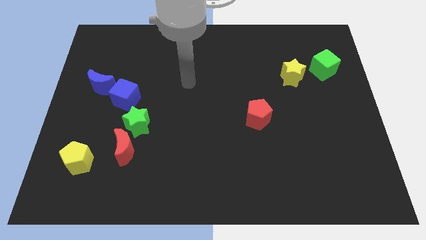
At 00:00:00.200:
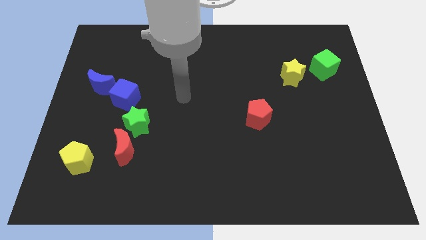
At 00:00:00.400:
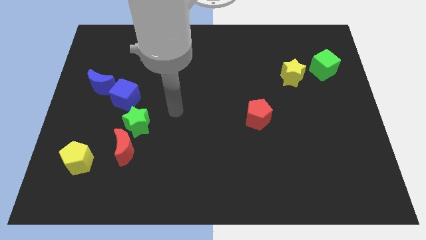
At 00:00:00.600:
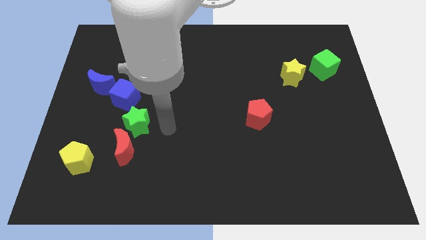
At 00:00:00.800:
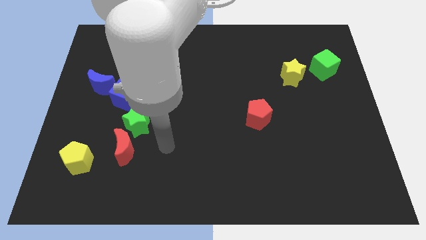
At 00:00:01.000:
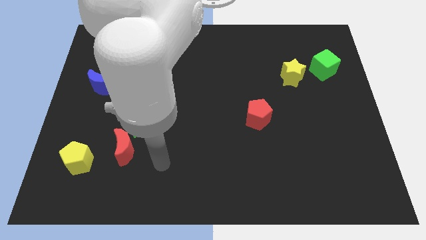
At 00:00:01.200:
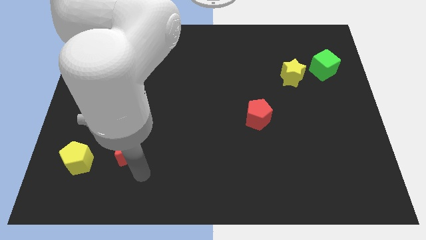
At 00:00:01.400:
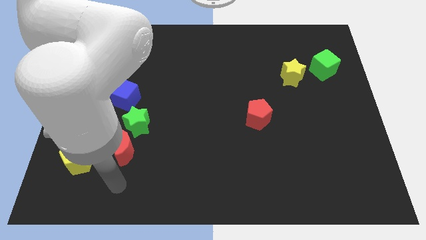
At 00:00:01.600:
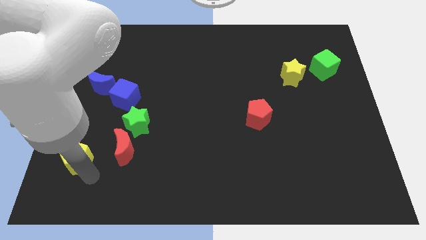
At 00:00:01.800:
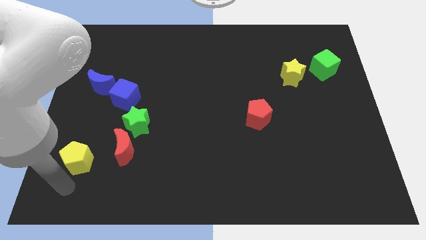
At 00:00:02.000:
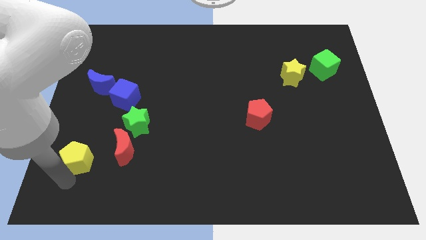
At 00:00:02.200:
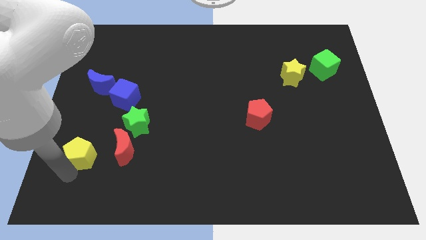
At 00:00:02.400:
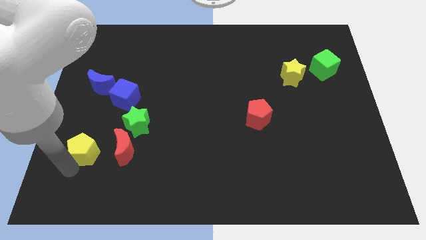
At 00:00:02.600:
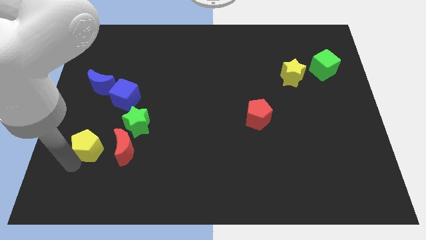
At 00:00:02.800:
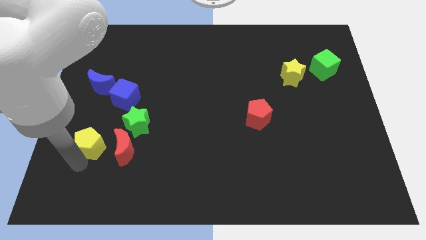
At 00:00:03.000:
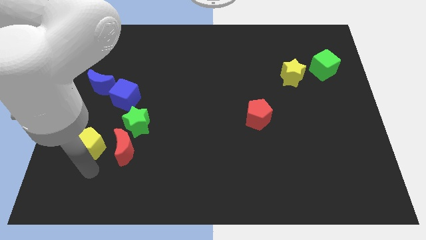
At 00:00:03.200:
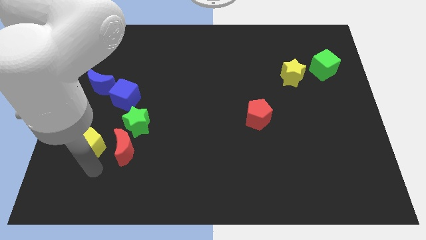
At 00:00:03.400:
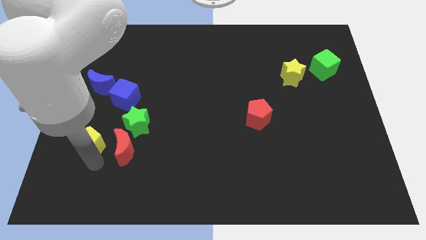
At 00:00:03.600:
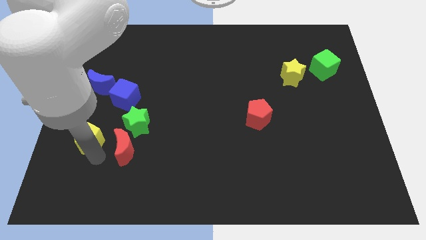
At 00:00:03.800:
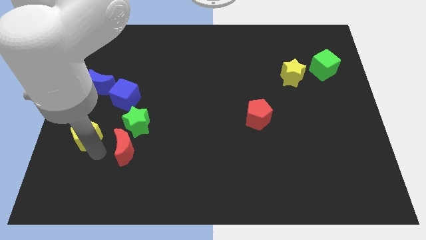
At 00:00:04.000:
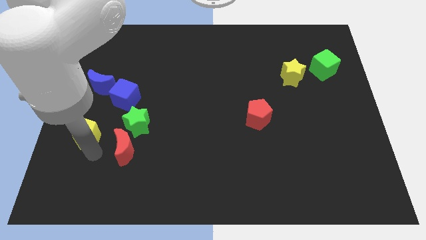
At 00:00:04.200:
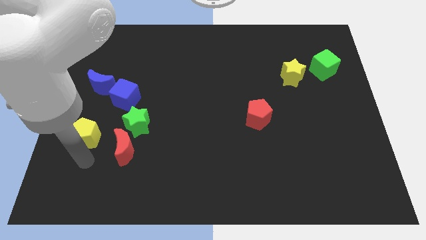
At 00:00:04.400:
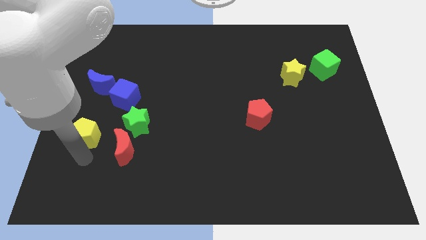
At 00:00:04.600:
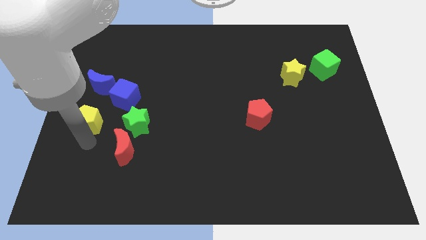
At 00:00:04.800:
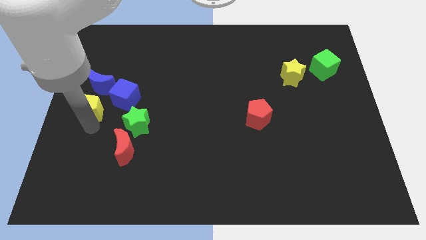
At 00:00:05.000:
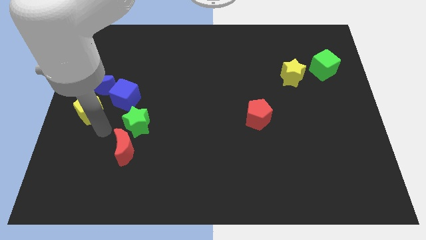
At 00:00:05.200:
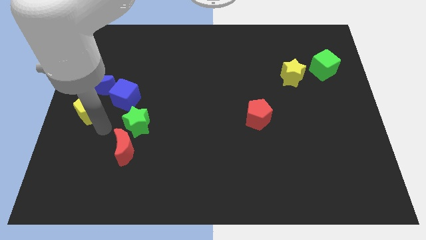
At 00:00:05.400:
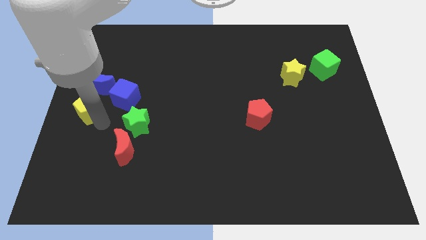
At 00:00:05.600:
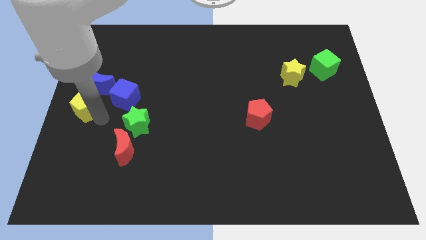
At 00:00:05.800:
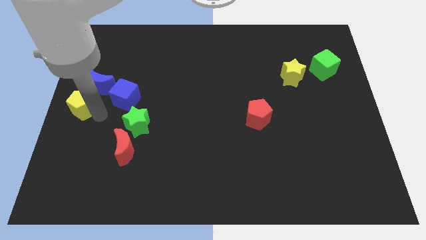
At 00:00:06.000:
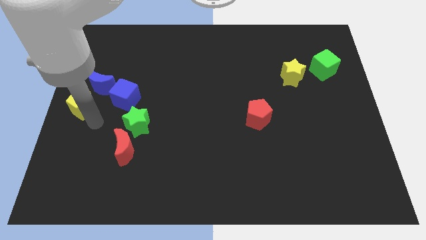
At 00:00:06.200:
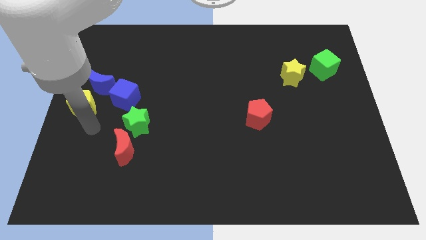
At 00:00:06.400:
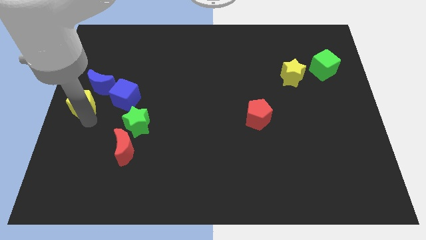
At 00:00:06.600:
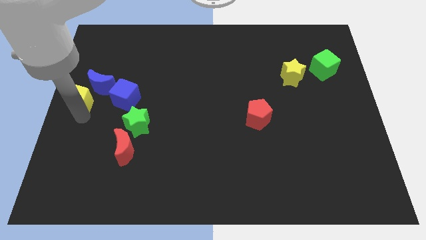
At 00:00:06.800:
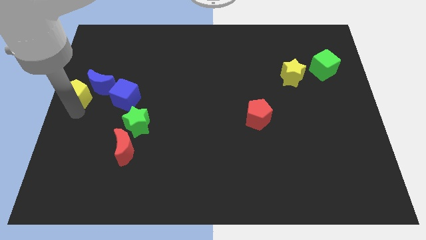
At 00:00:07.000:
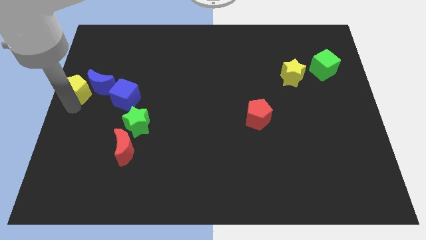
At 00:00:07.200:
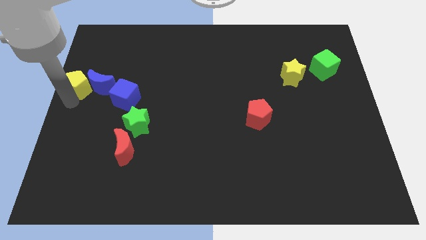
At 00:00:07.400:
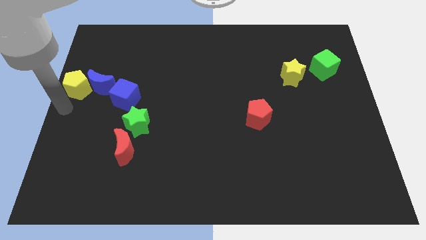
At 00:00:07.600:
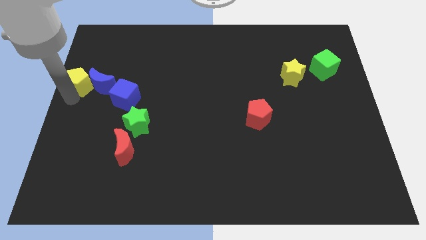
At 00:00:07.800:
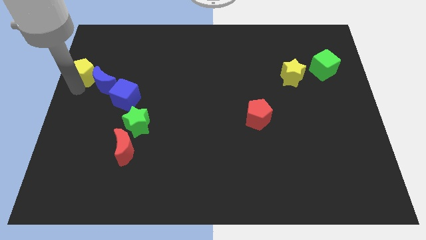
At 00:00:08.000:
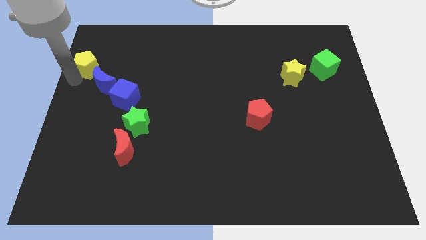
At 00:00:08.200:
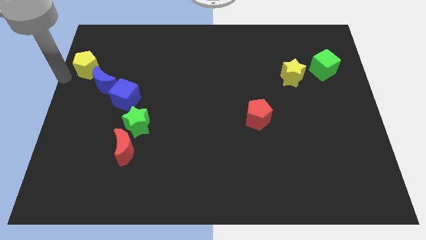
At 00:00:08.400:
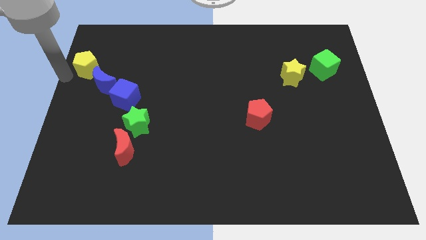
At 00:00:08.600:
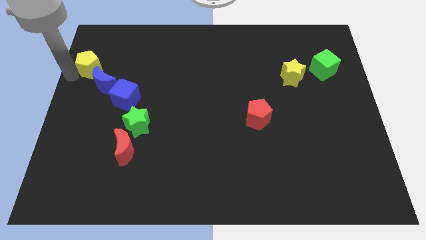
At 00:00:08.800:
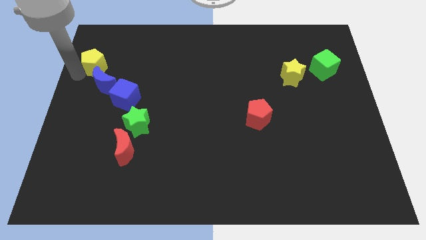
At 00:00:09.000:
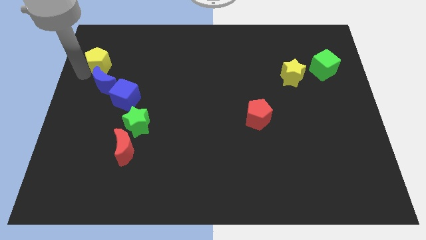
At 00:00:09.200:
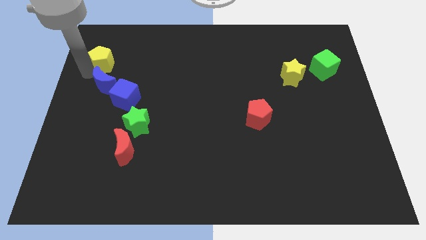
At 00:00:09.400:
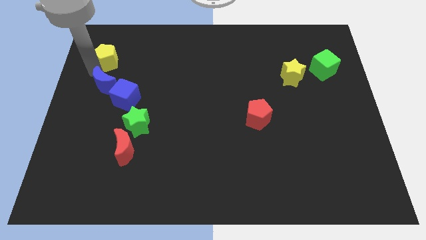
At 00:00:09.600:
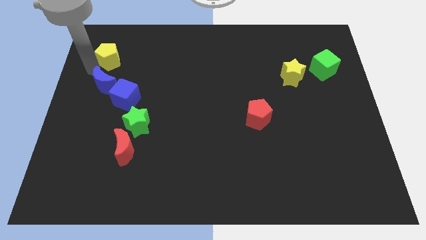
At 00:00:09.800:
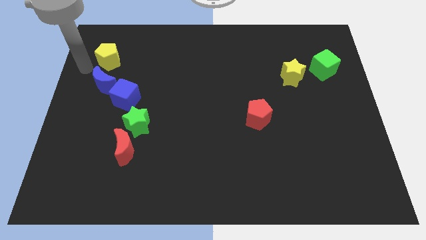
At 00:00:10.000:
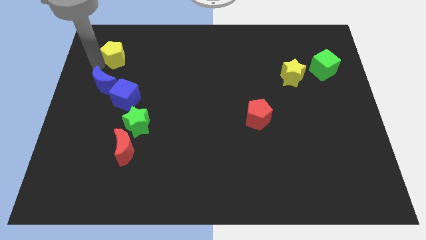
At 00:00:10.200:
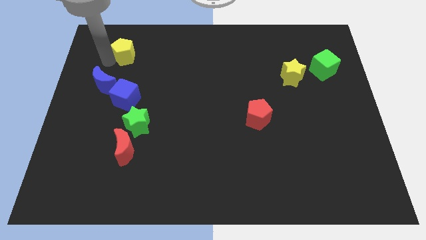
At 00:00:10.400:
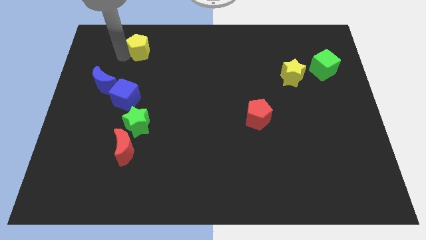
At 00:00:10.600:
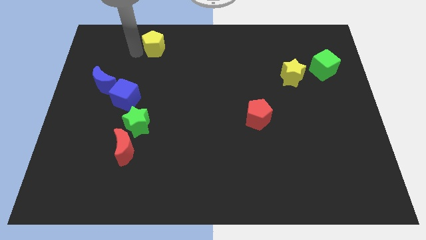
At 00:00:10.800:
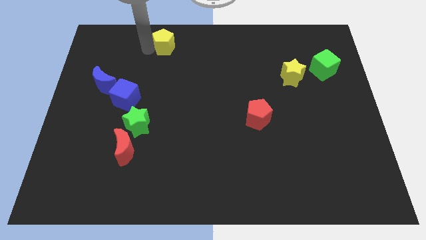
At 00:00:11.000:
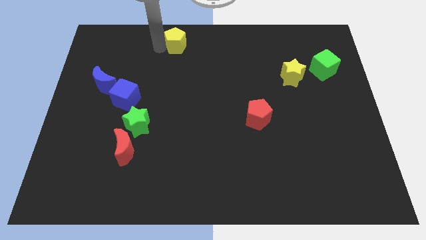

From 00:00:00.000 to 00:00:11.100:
move the yellow pentagon to the top

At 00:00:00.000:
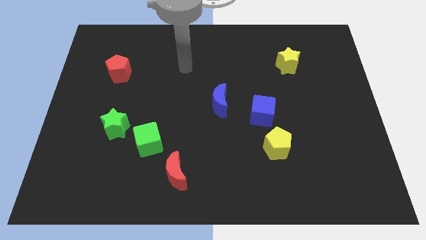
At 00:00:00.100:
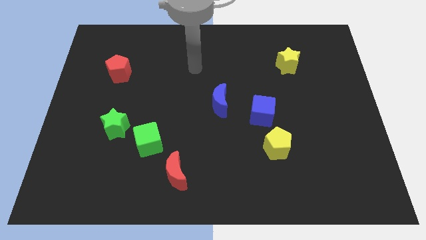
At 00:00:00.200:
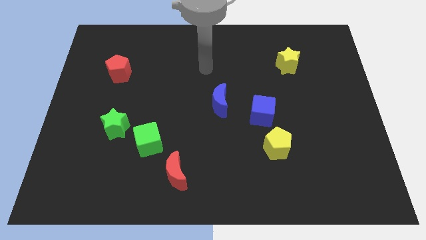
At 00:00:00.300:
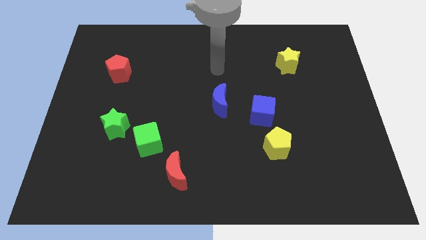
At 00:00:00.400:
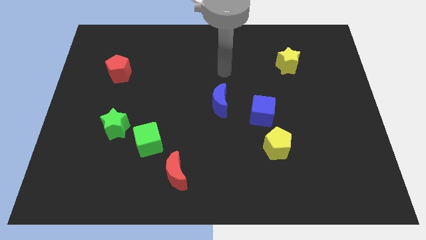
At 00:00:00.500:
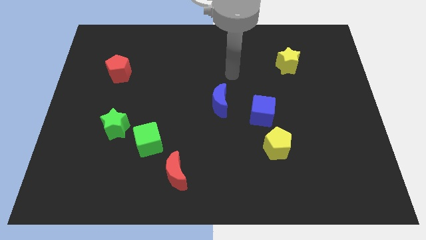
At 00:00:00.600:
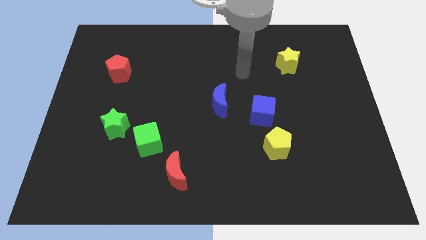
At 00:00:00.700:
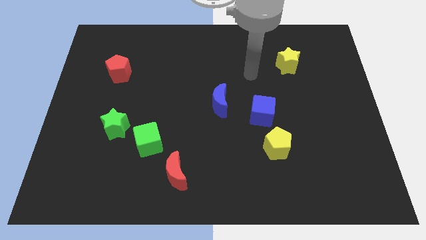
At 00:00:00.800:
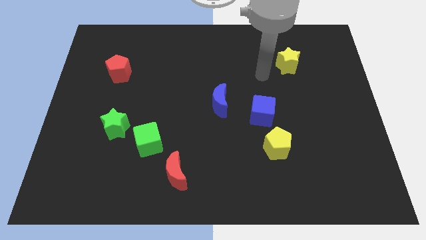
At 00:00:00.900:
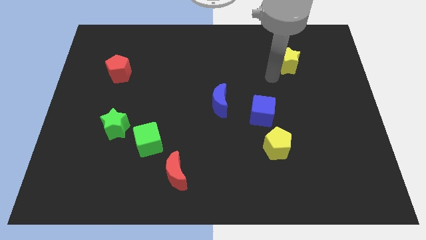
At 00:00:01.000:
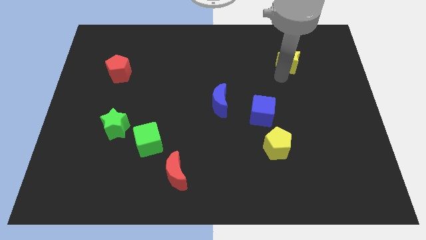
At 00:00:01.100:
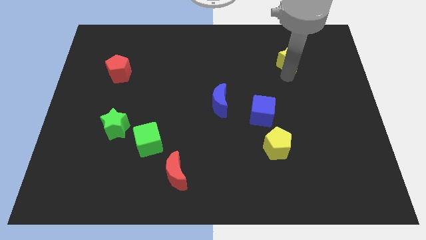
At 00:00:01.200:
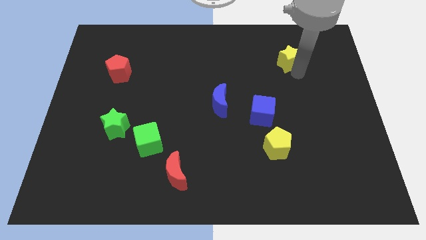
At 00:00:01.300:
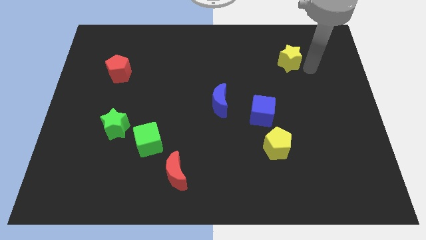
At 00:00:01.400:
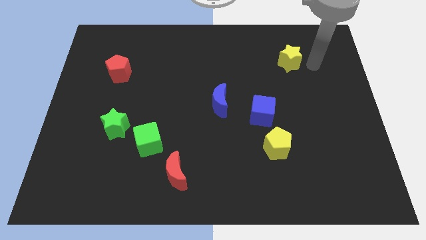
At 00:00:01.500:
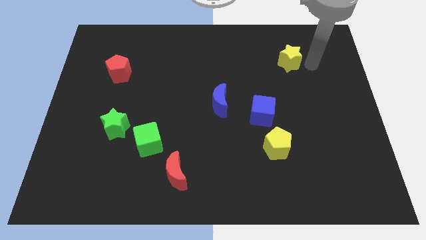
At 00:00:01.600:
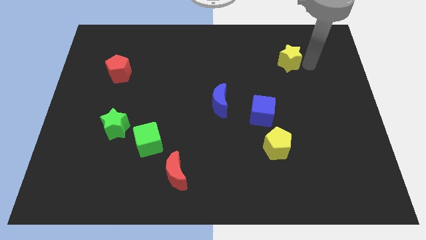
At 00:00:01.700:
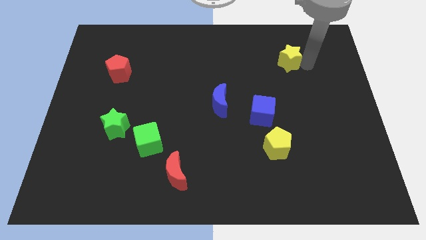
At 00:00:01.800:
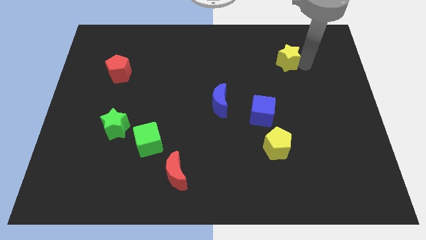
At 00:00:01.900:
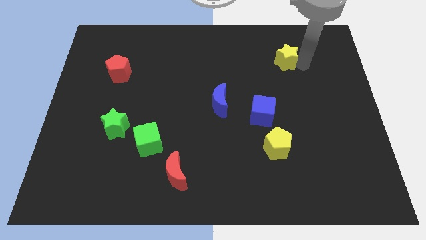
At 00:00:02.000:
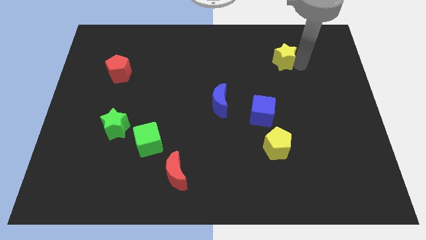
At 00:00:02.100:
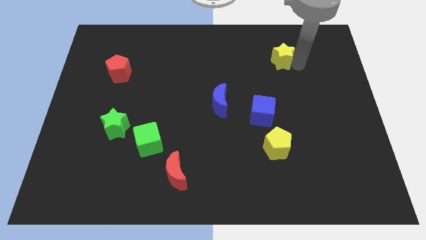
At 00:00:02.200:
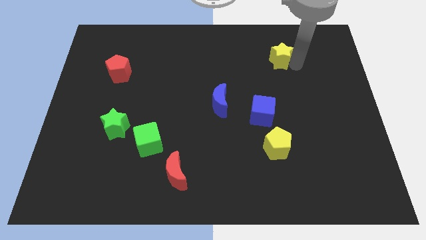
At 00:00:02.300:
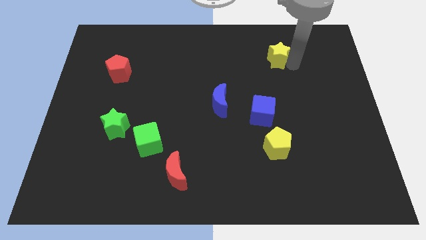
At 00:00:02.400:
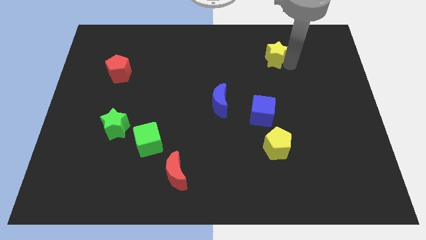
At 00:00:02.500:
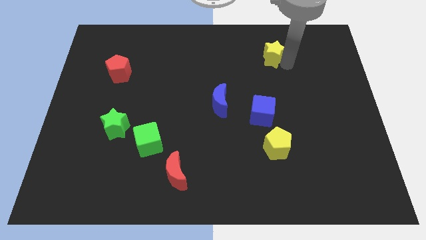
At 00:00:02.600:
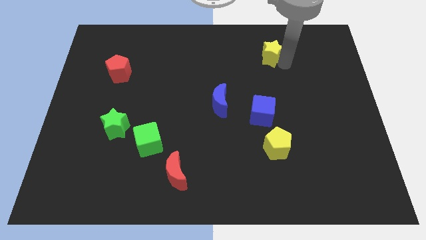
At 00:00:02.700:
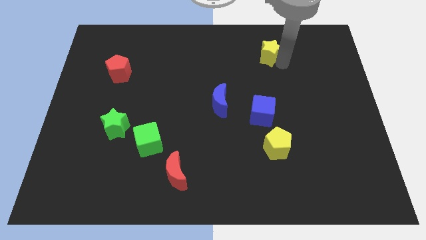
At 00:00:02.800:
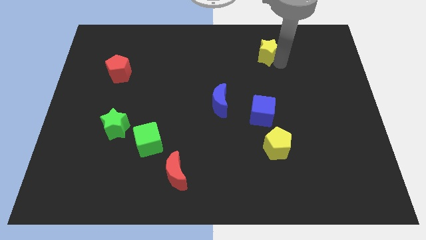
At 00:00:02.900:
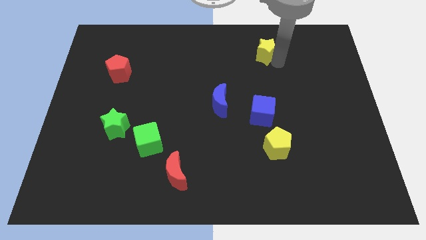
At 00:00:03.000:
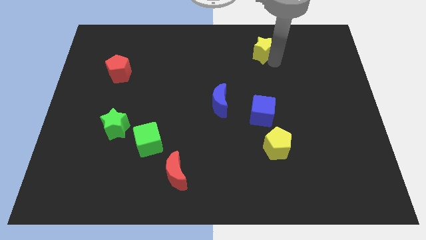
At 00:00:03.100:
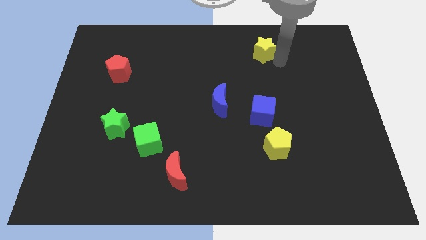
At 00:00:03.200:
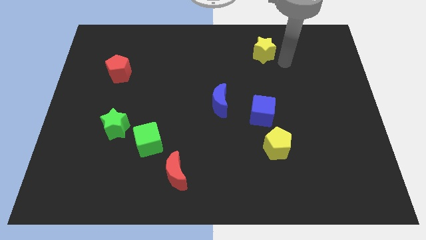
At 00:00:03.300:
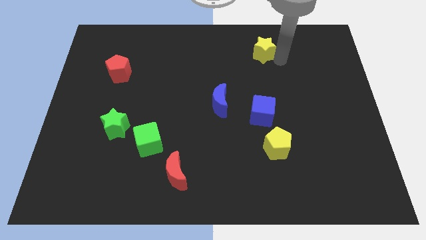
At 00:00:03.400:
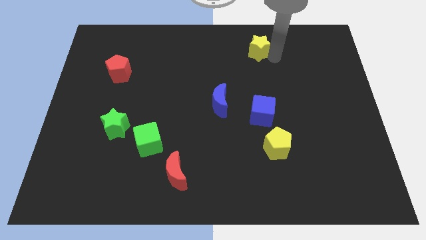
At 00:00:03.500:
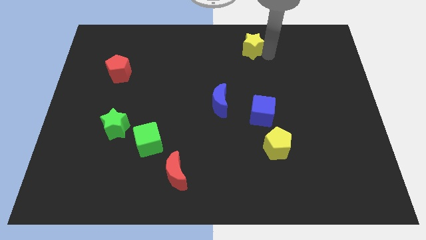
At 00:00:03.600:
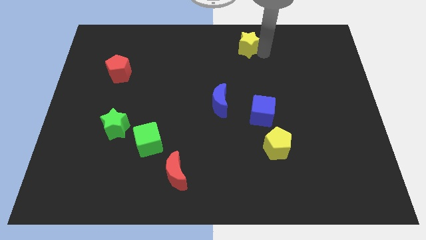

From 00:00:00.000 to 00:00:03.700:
push the yellow star to the top
